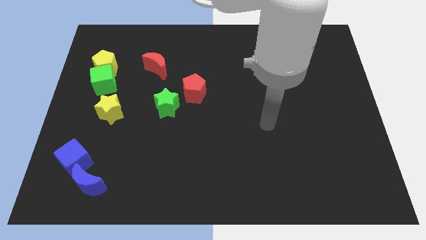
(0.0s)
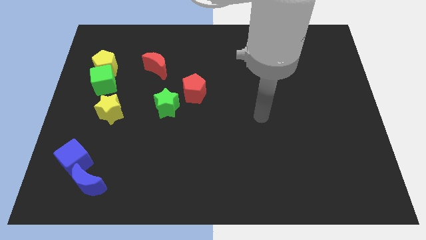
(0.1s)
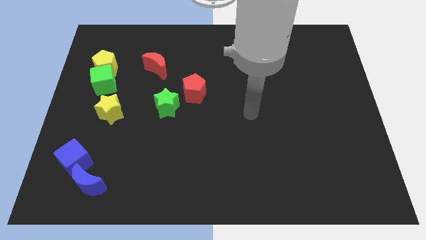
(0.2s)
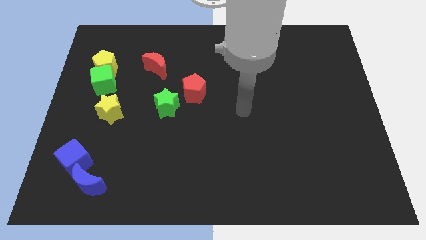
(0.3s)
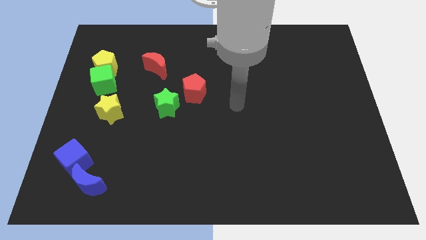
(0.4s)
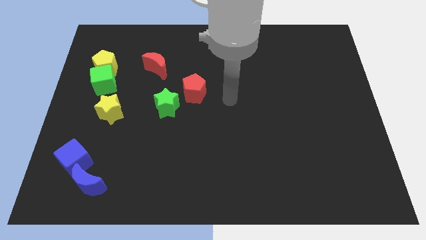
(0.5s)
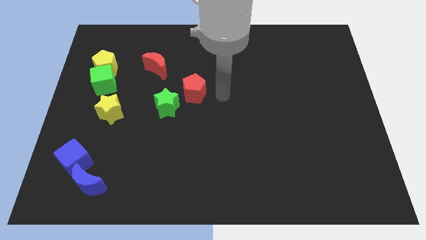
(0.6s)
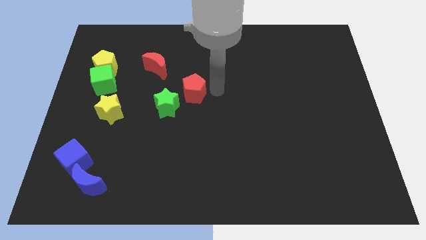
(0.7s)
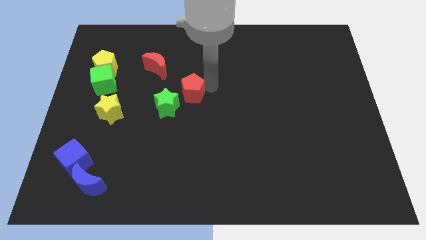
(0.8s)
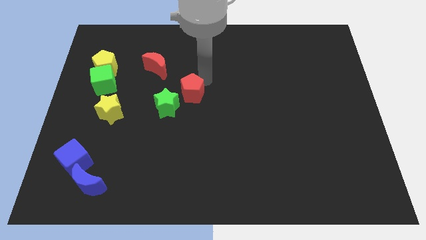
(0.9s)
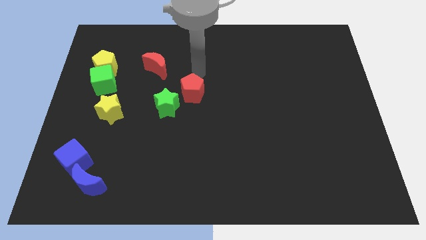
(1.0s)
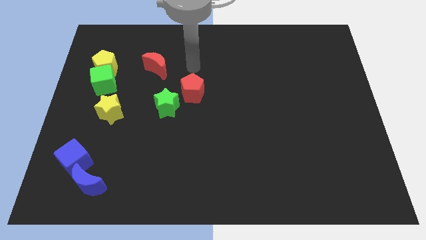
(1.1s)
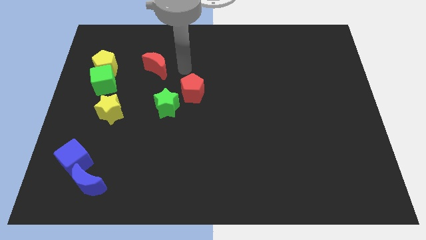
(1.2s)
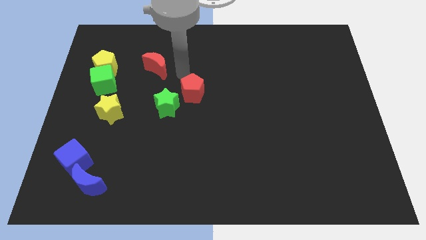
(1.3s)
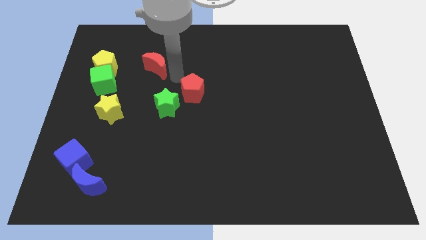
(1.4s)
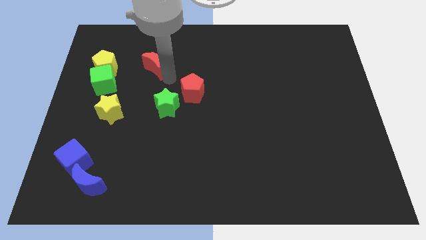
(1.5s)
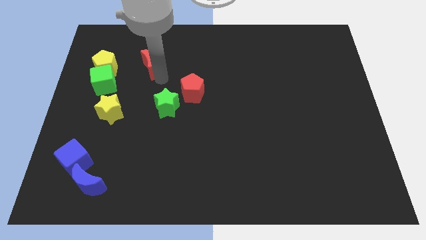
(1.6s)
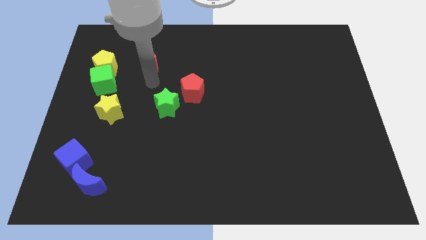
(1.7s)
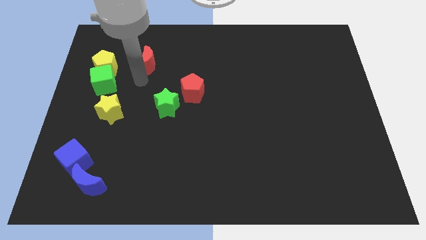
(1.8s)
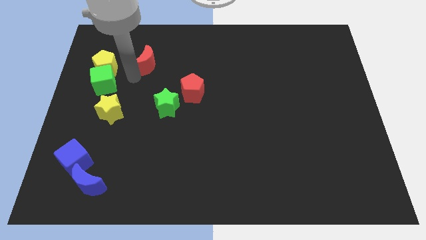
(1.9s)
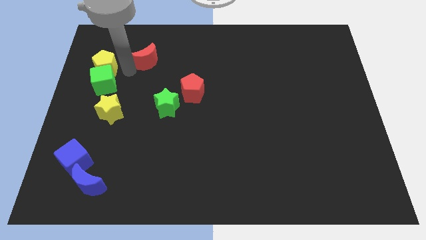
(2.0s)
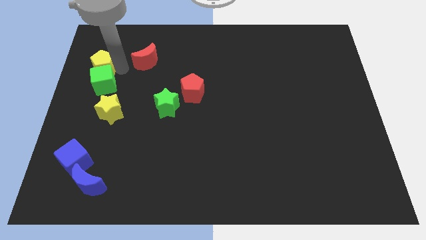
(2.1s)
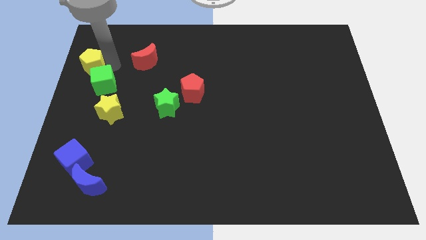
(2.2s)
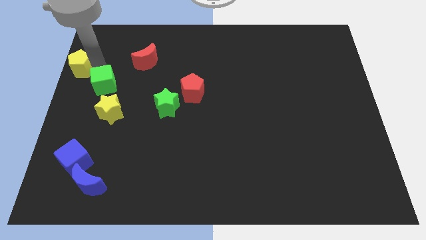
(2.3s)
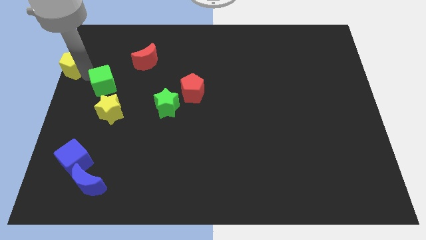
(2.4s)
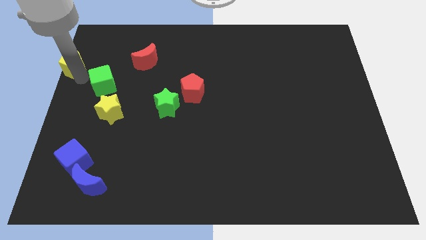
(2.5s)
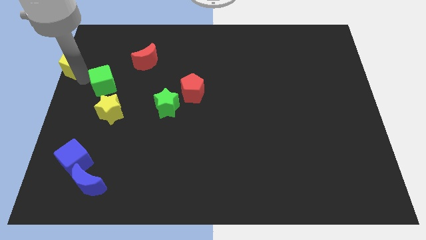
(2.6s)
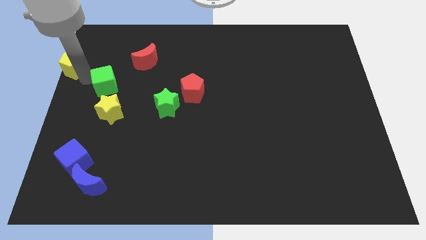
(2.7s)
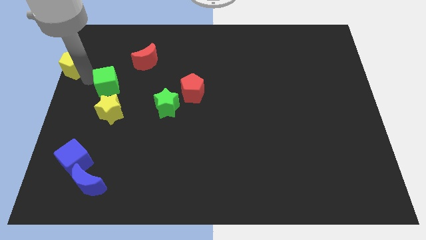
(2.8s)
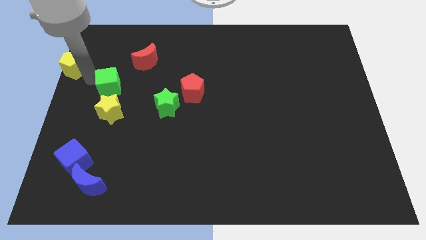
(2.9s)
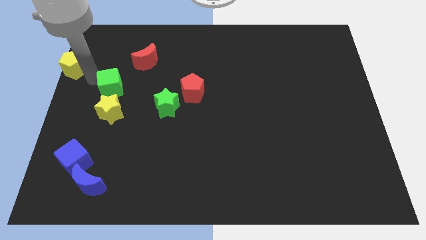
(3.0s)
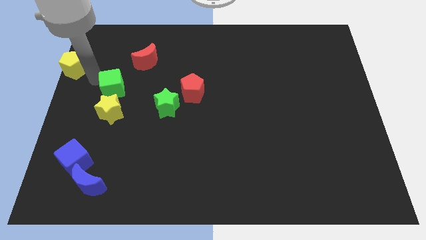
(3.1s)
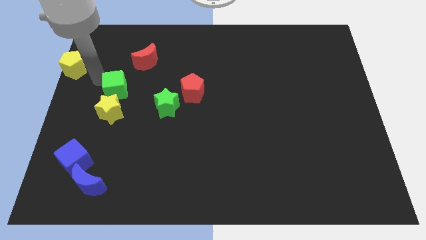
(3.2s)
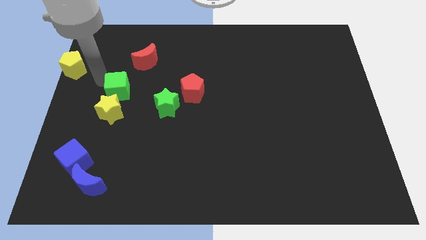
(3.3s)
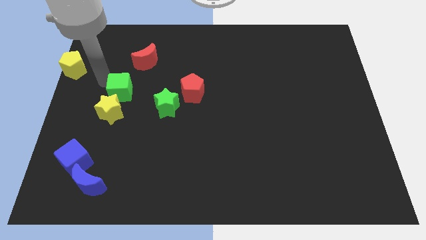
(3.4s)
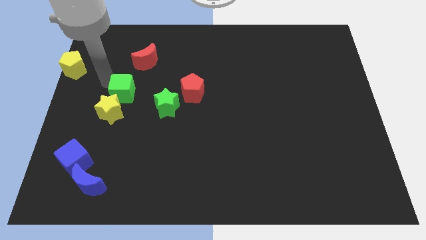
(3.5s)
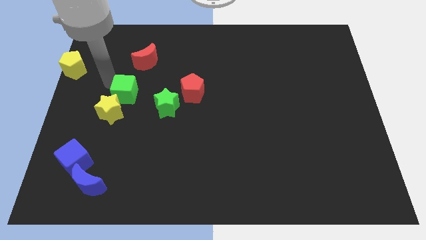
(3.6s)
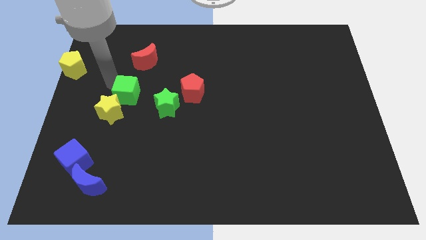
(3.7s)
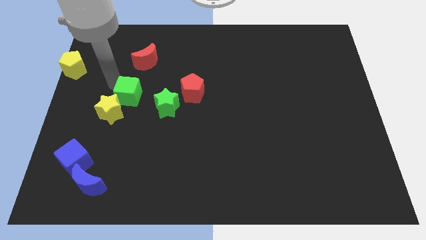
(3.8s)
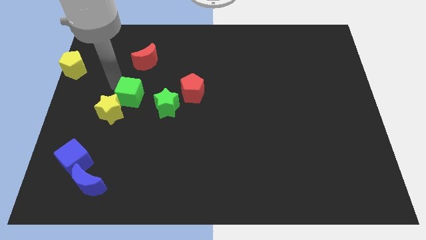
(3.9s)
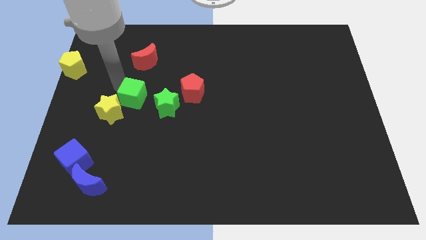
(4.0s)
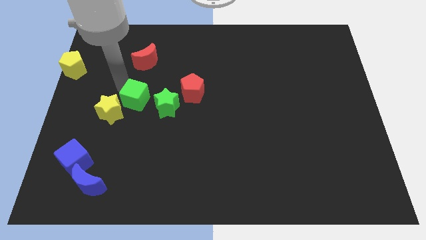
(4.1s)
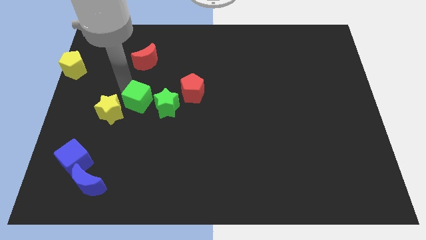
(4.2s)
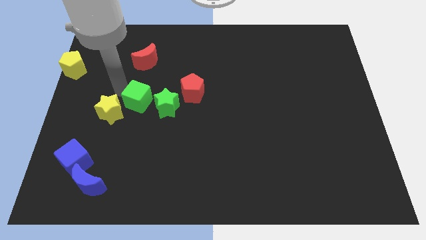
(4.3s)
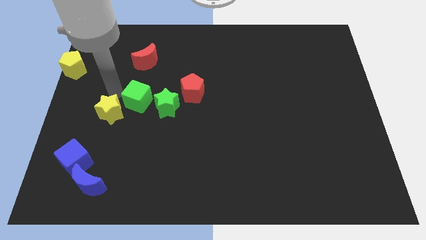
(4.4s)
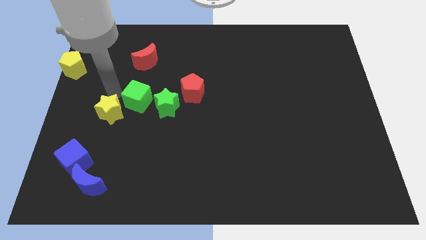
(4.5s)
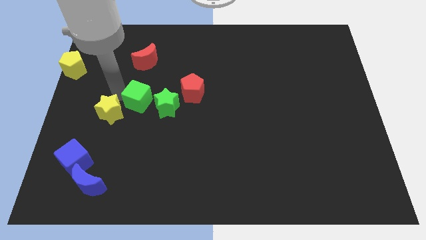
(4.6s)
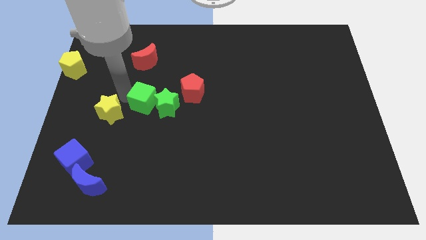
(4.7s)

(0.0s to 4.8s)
slide the green cube towards the green star

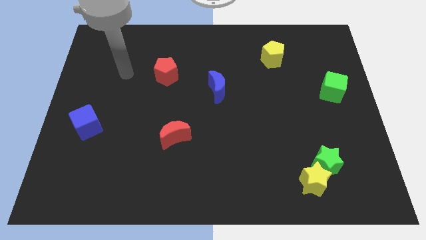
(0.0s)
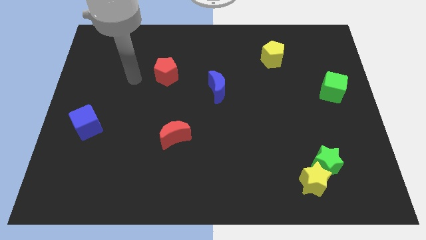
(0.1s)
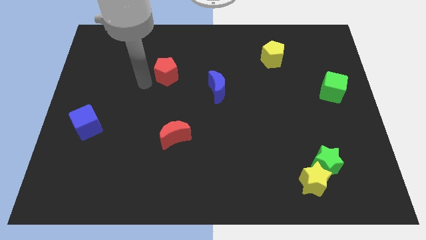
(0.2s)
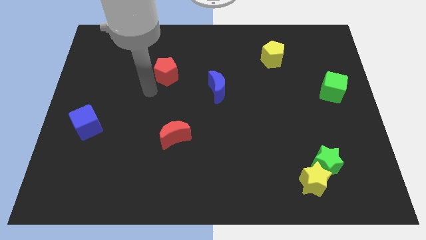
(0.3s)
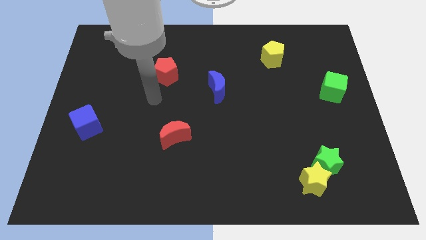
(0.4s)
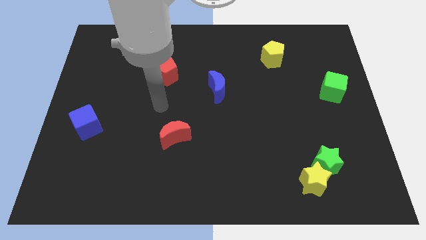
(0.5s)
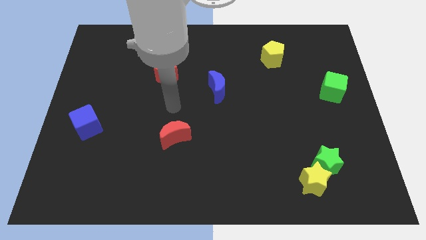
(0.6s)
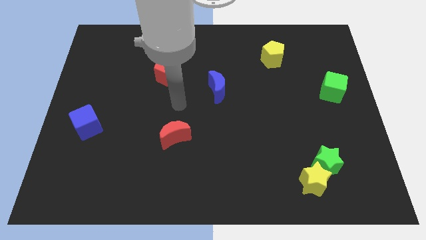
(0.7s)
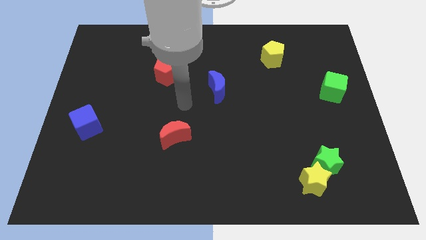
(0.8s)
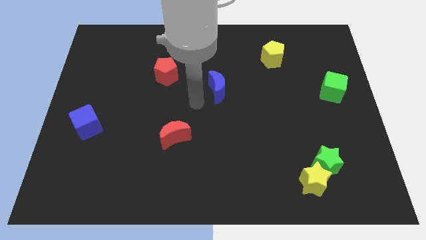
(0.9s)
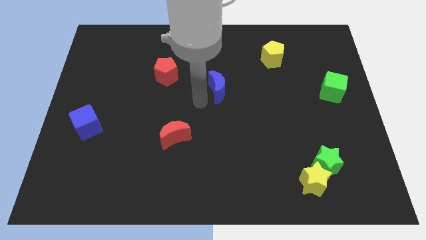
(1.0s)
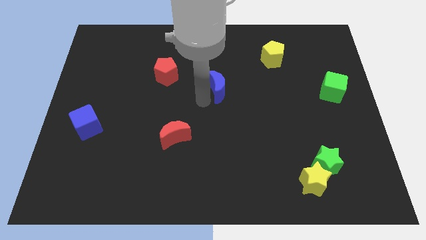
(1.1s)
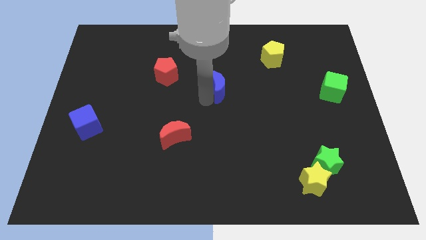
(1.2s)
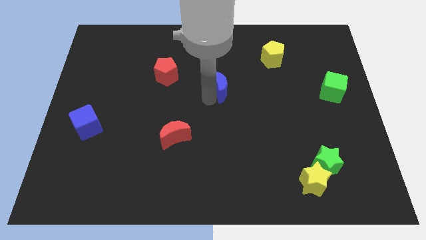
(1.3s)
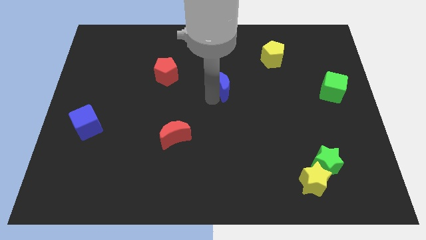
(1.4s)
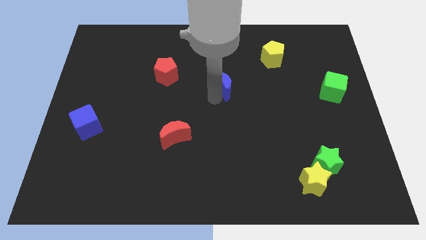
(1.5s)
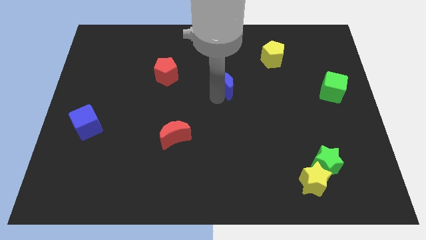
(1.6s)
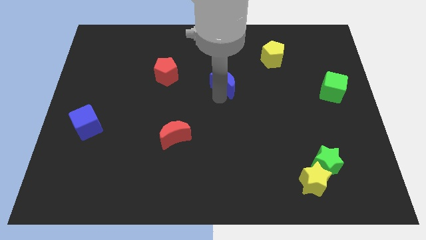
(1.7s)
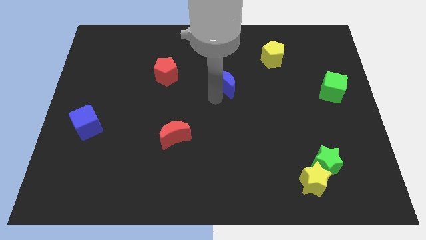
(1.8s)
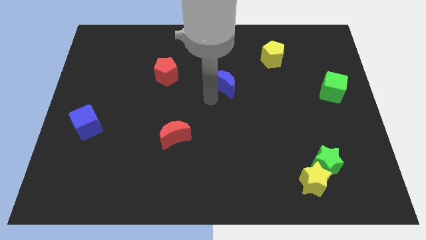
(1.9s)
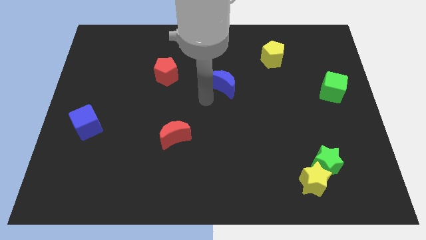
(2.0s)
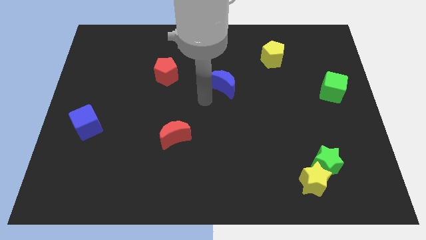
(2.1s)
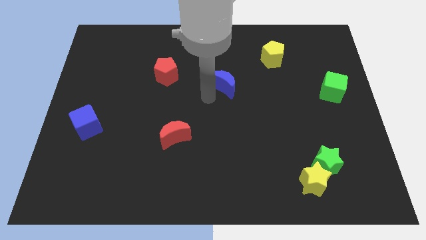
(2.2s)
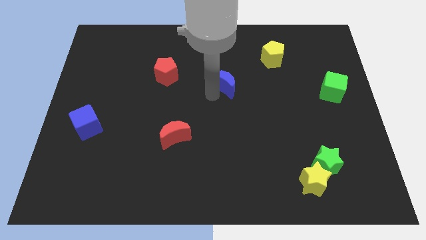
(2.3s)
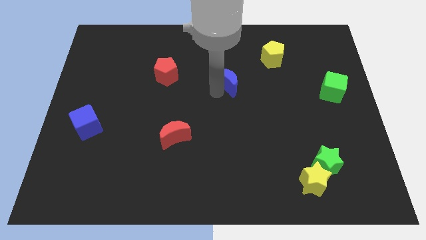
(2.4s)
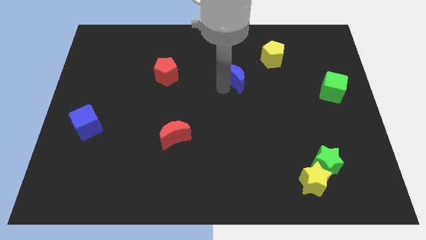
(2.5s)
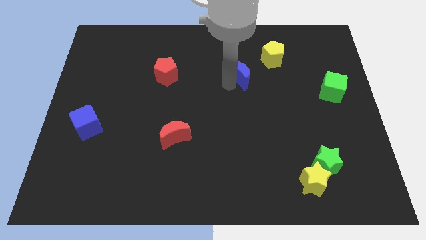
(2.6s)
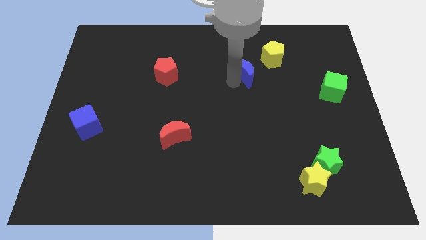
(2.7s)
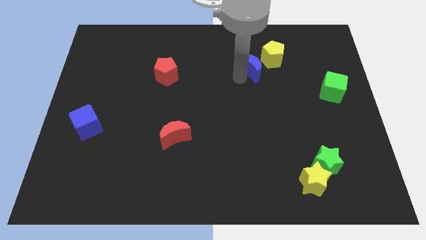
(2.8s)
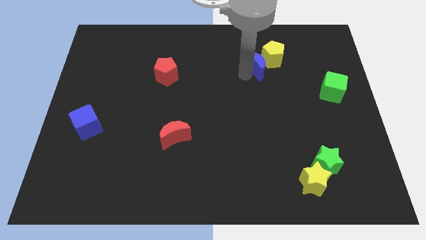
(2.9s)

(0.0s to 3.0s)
push the blue moon next to the yellow pentagon
